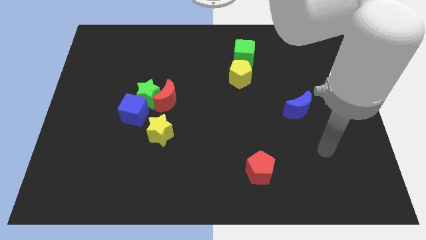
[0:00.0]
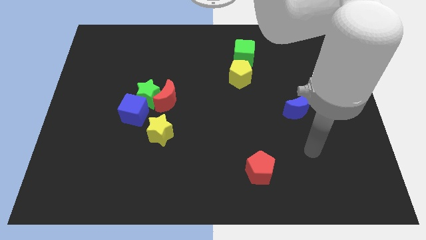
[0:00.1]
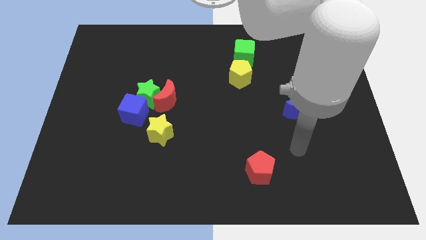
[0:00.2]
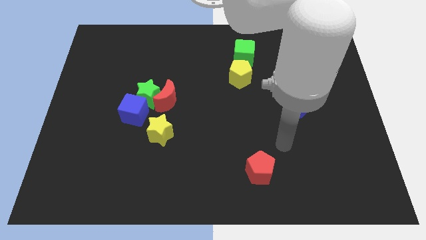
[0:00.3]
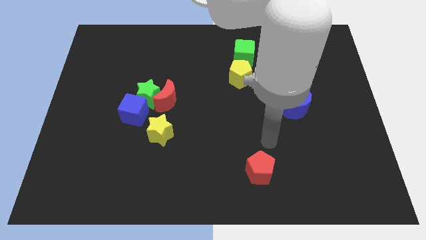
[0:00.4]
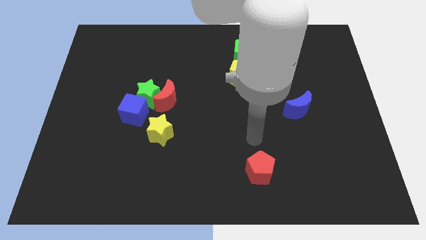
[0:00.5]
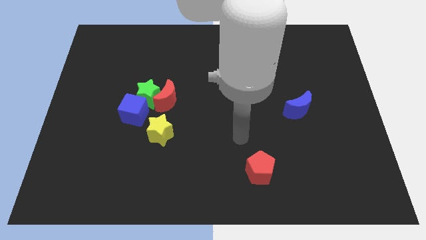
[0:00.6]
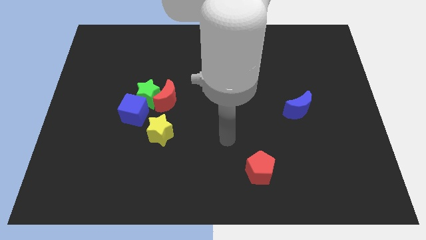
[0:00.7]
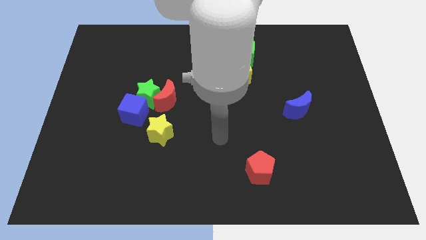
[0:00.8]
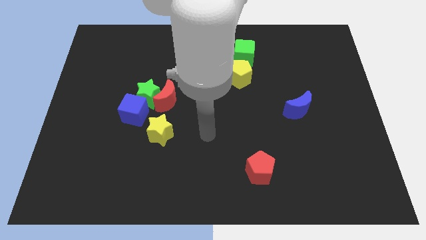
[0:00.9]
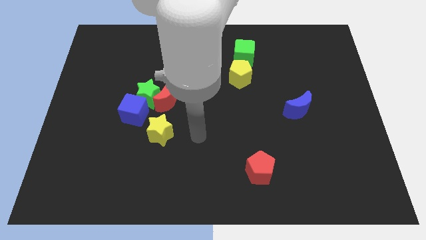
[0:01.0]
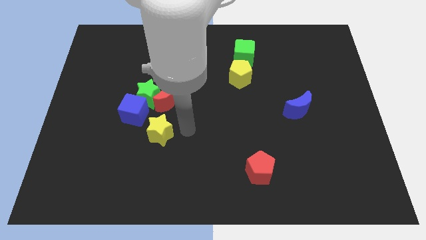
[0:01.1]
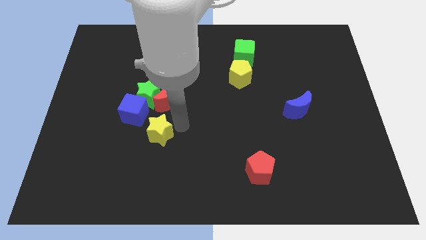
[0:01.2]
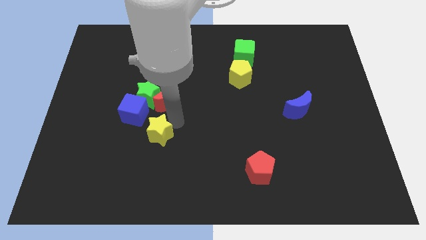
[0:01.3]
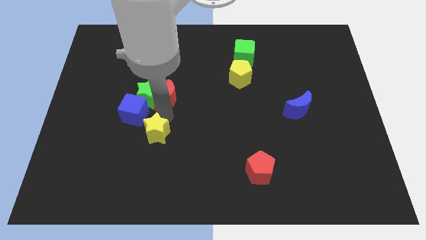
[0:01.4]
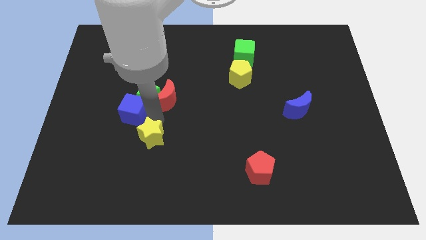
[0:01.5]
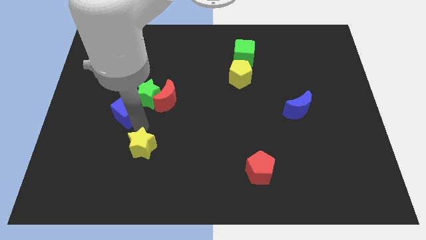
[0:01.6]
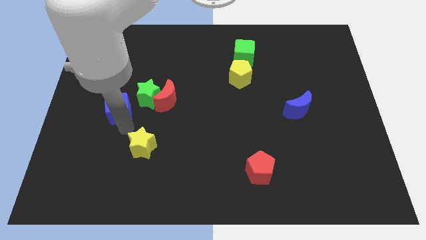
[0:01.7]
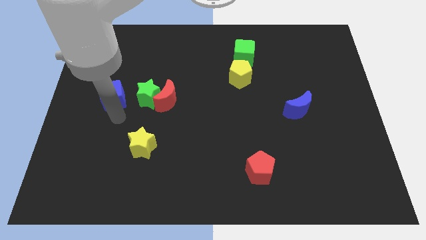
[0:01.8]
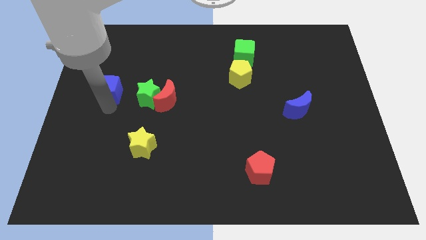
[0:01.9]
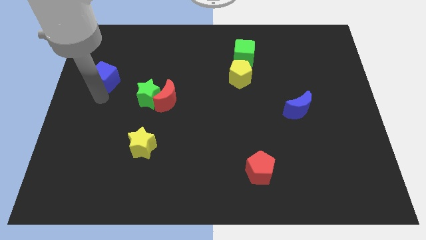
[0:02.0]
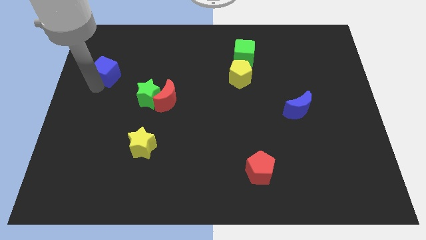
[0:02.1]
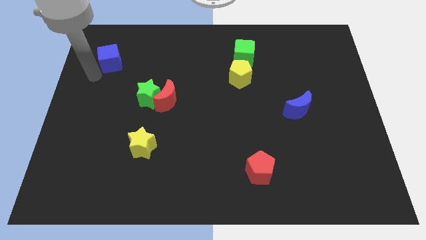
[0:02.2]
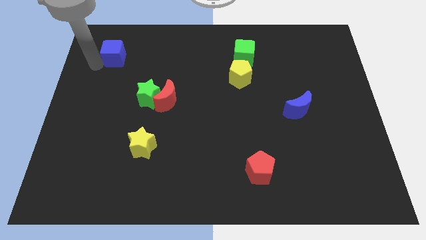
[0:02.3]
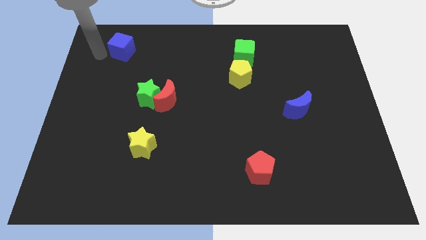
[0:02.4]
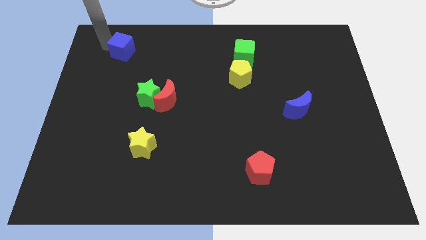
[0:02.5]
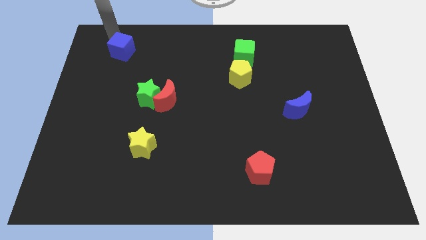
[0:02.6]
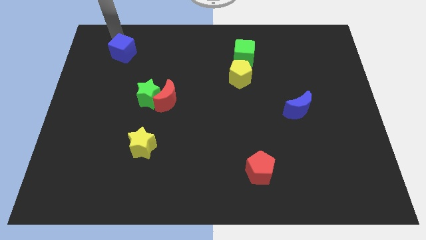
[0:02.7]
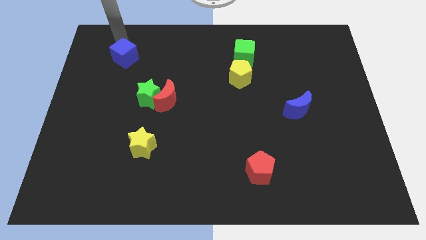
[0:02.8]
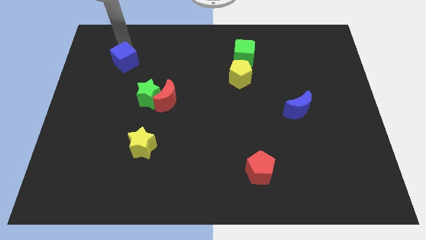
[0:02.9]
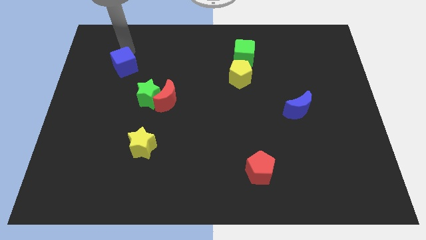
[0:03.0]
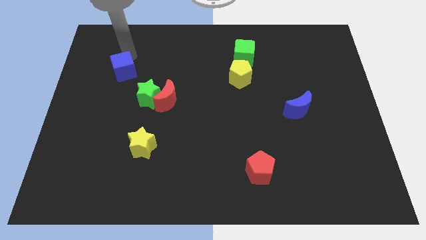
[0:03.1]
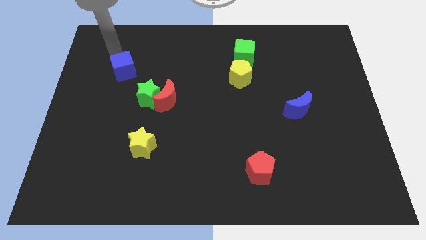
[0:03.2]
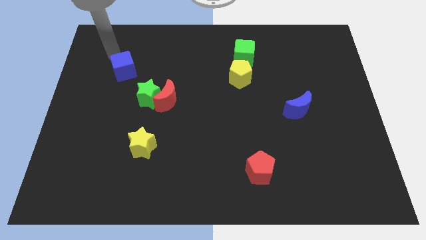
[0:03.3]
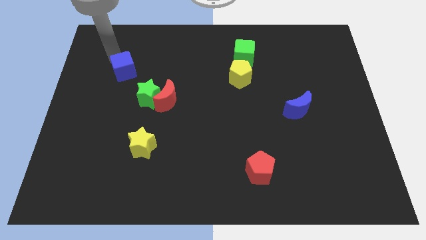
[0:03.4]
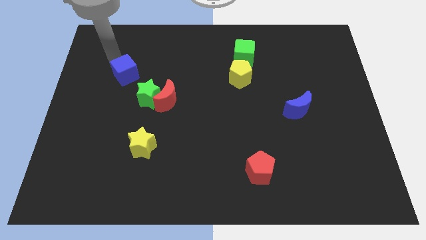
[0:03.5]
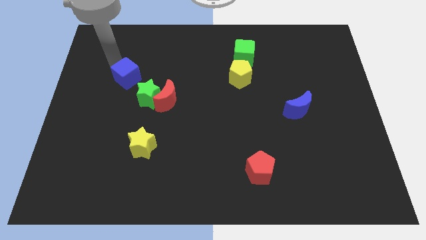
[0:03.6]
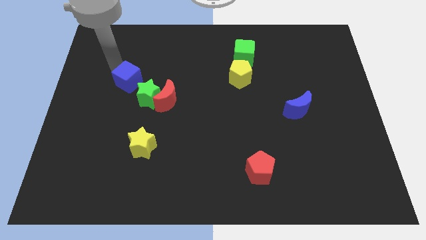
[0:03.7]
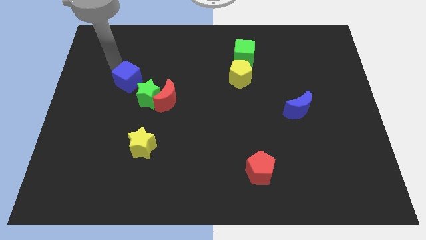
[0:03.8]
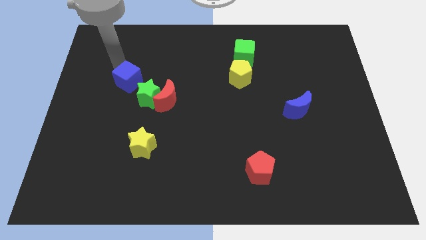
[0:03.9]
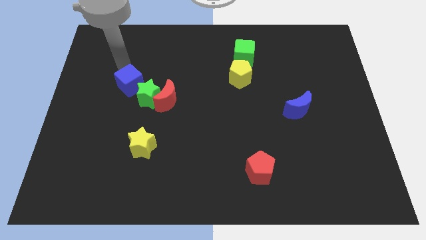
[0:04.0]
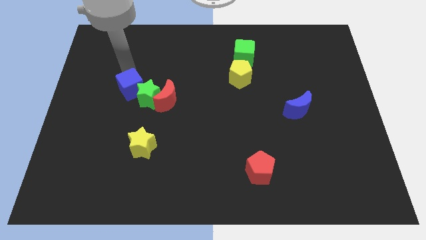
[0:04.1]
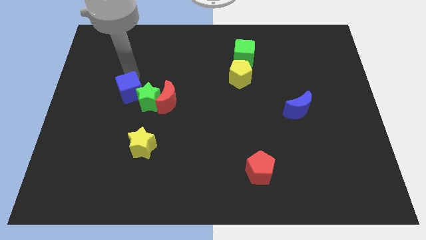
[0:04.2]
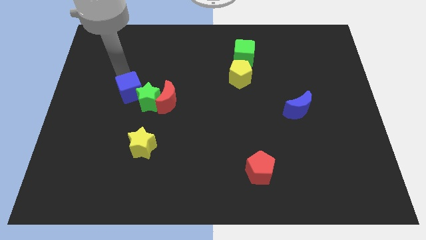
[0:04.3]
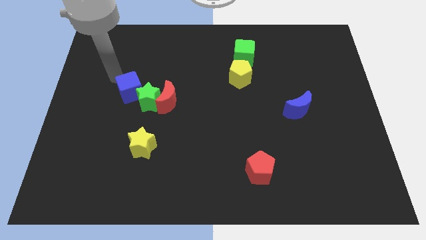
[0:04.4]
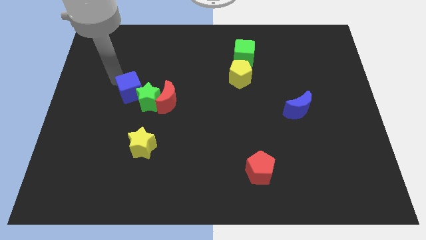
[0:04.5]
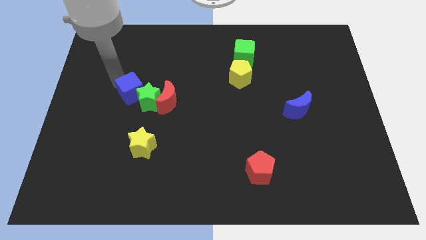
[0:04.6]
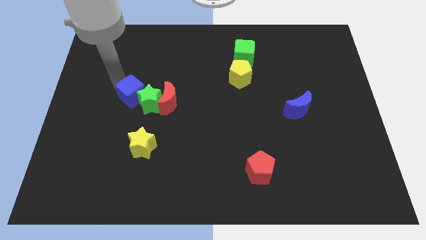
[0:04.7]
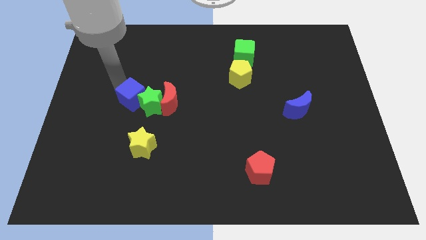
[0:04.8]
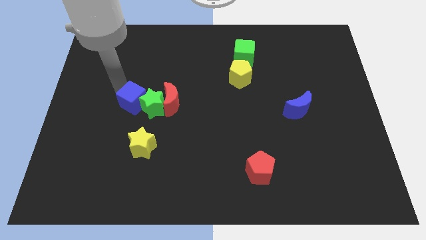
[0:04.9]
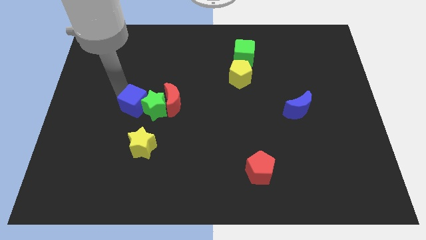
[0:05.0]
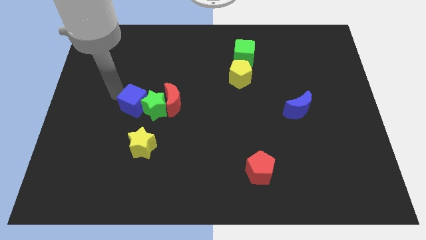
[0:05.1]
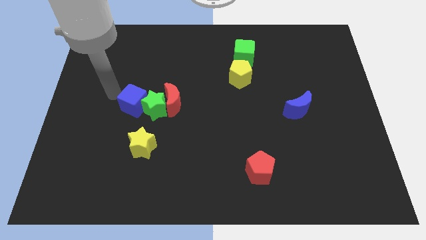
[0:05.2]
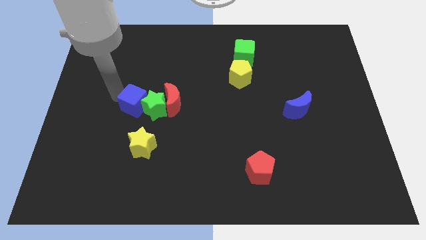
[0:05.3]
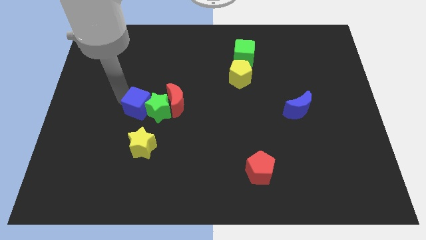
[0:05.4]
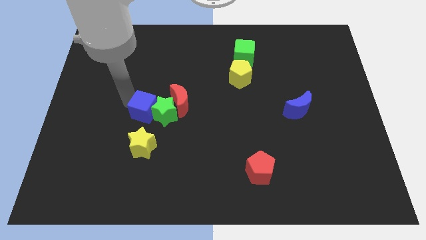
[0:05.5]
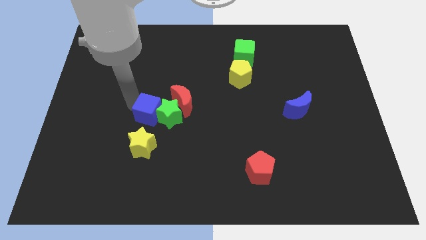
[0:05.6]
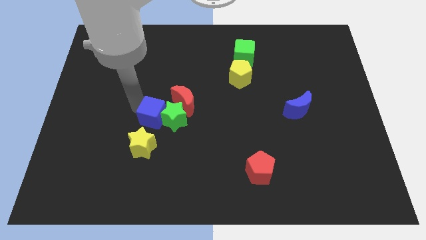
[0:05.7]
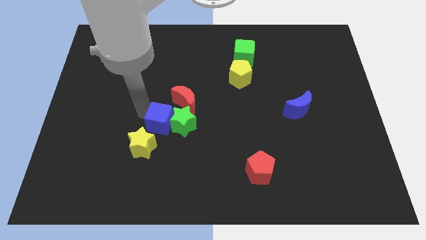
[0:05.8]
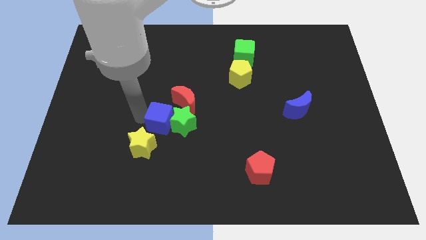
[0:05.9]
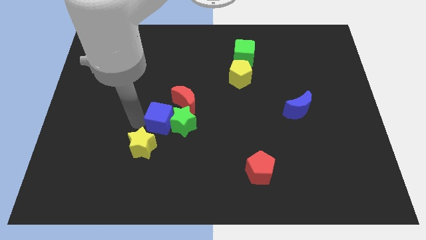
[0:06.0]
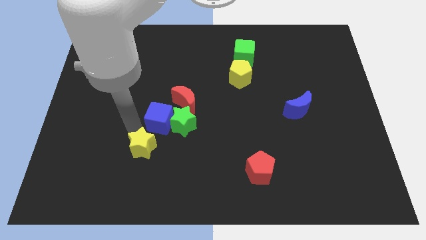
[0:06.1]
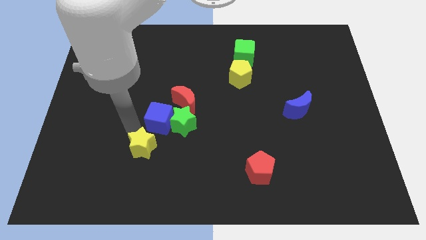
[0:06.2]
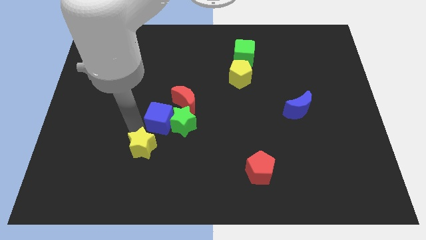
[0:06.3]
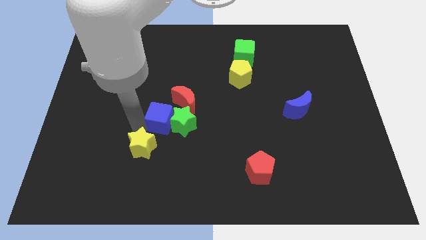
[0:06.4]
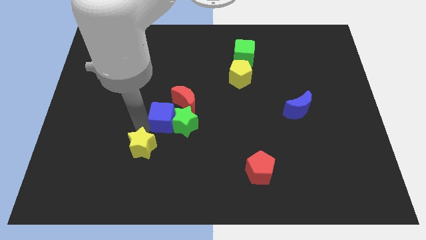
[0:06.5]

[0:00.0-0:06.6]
push the blue cube right a little bit

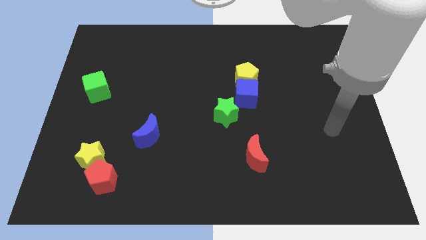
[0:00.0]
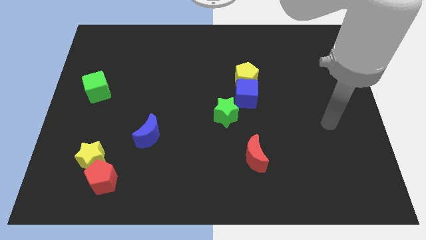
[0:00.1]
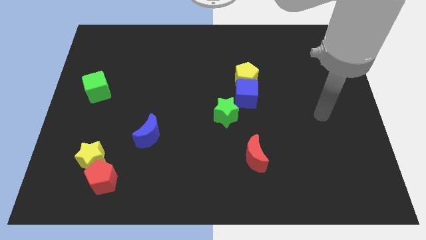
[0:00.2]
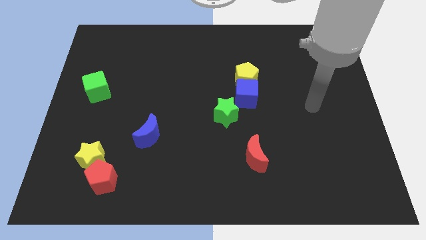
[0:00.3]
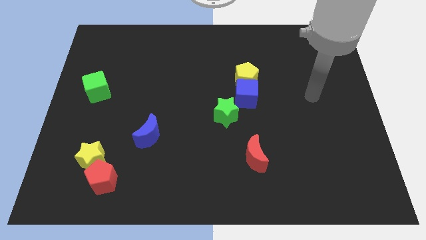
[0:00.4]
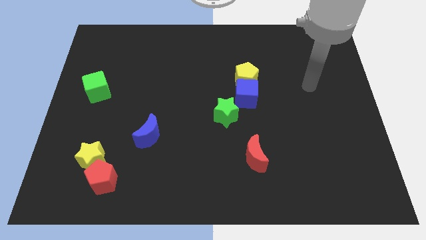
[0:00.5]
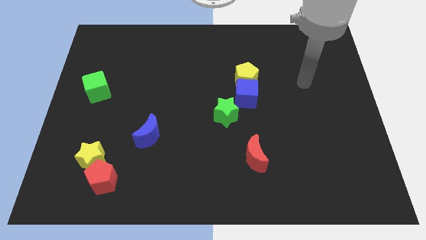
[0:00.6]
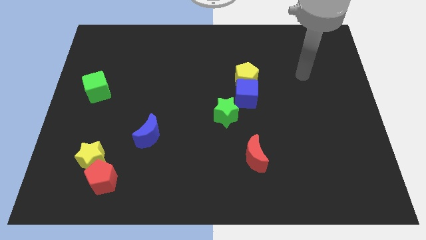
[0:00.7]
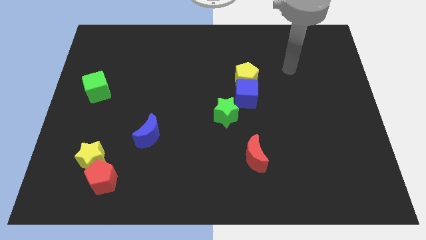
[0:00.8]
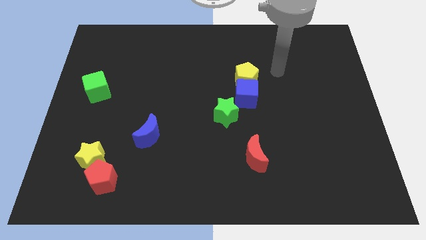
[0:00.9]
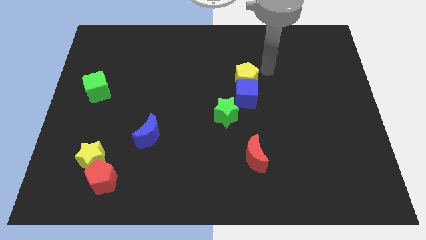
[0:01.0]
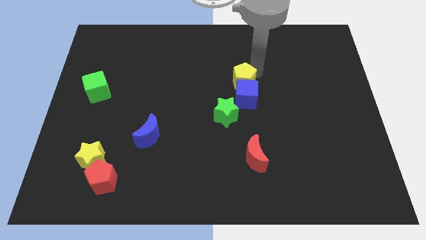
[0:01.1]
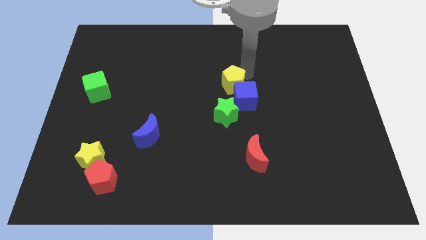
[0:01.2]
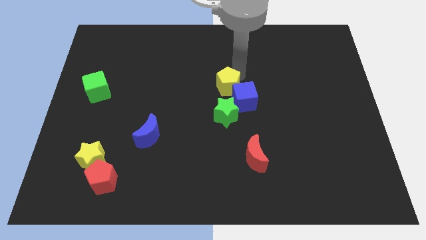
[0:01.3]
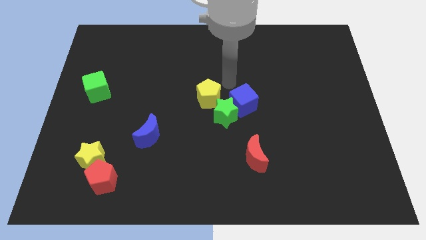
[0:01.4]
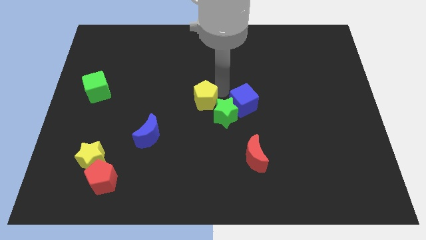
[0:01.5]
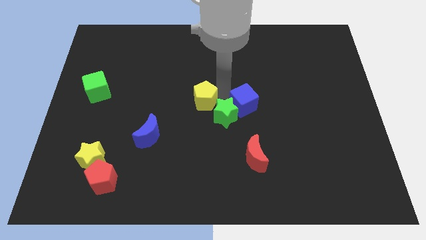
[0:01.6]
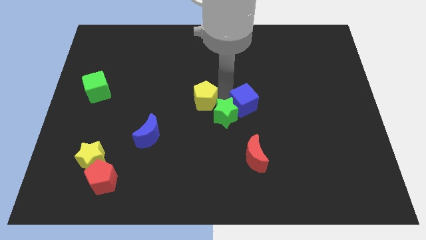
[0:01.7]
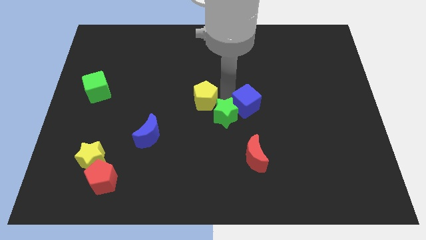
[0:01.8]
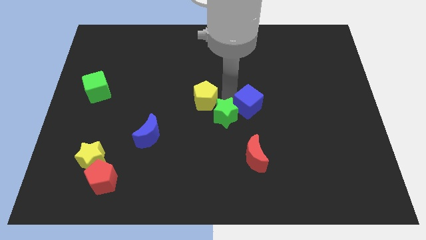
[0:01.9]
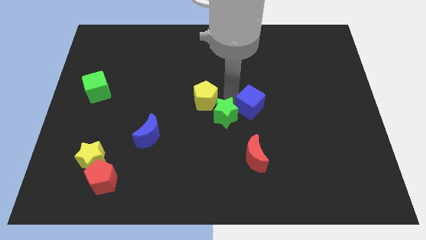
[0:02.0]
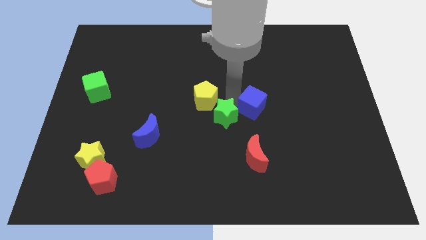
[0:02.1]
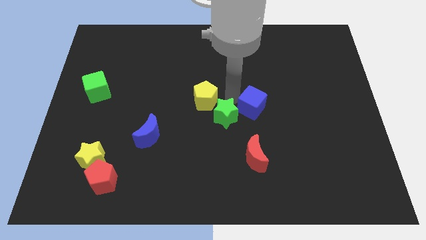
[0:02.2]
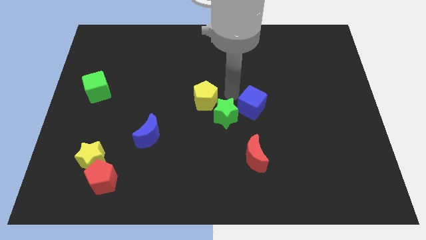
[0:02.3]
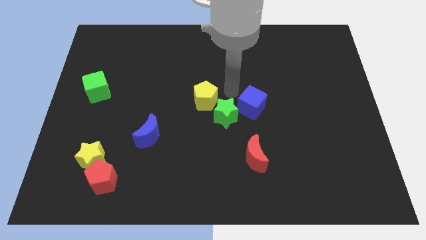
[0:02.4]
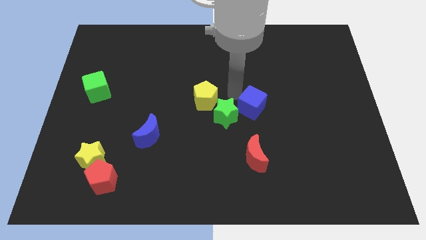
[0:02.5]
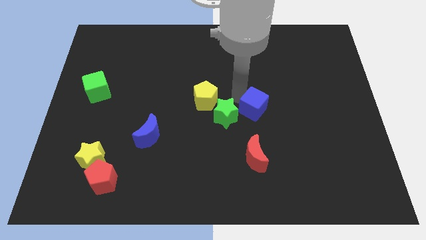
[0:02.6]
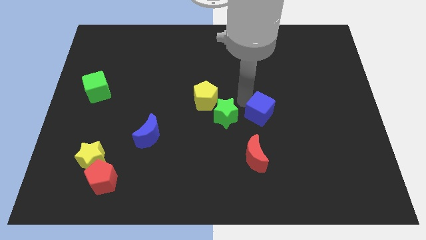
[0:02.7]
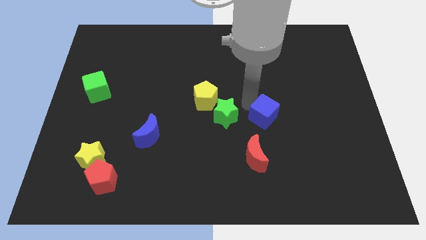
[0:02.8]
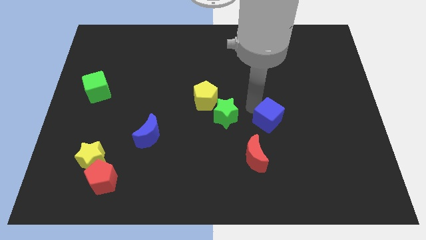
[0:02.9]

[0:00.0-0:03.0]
slightly slide the blue cube down and to the right
